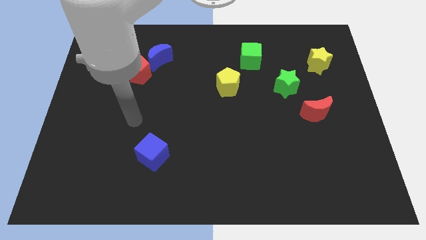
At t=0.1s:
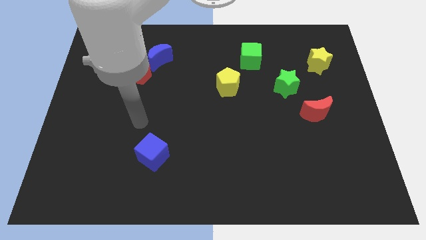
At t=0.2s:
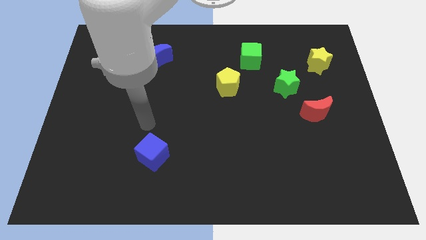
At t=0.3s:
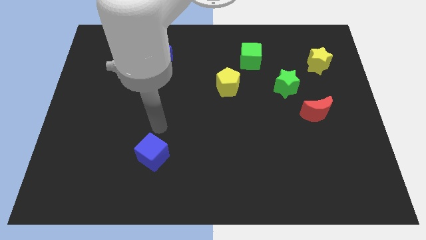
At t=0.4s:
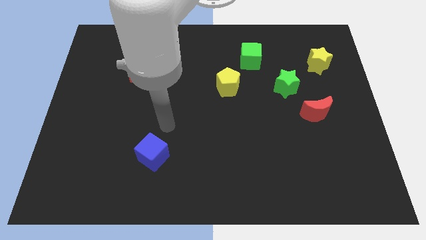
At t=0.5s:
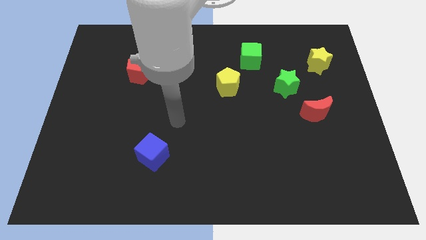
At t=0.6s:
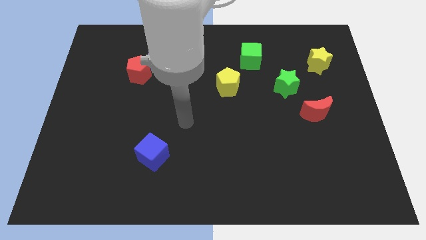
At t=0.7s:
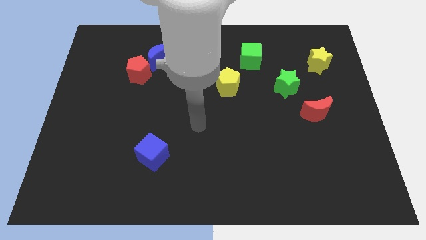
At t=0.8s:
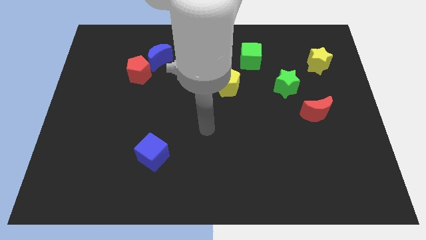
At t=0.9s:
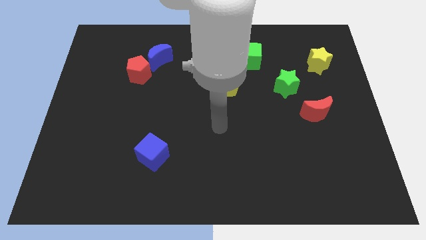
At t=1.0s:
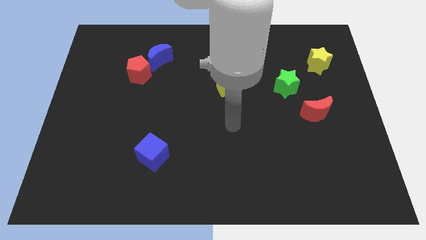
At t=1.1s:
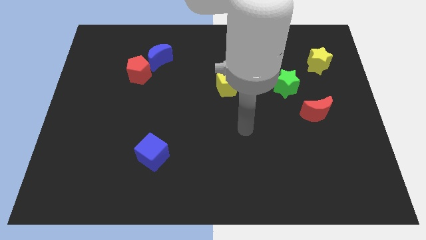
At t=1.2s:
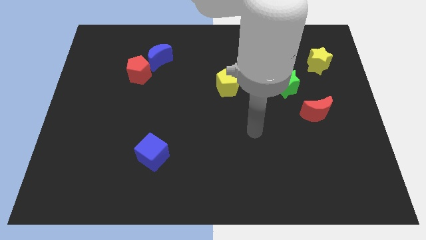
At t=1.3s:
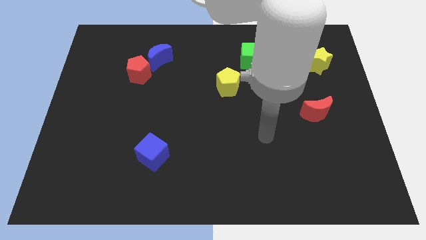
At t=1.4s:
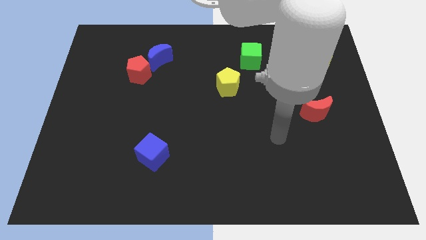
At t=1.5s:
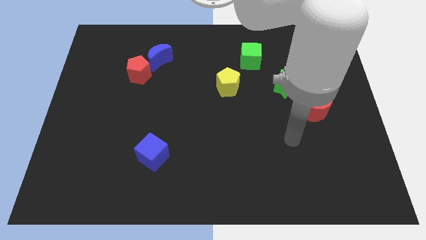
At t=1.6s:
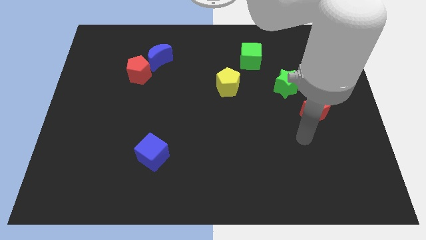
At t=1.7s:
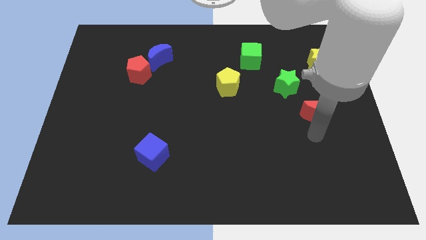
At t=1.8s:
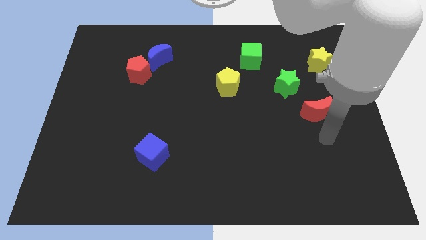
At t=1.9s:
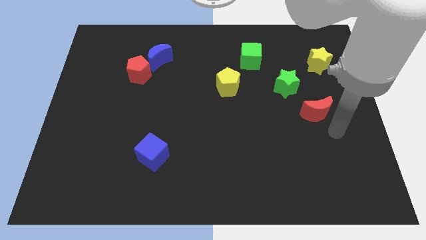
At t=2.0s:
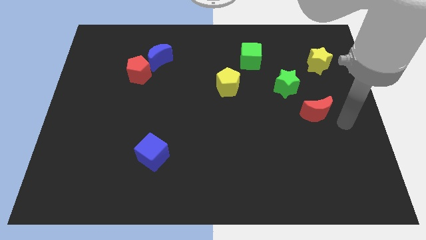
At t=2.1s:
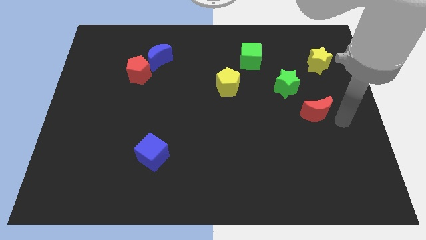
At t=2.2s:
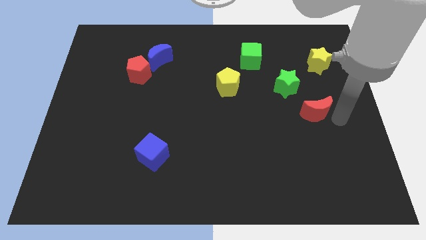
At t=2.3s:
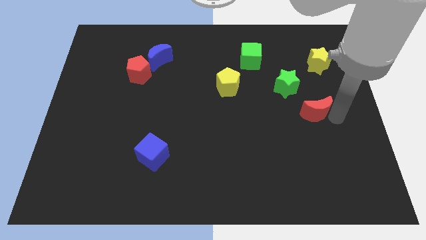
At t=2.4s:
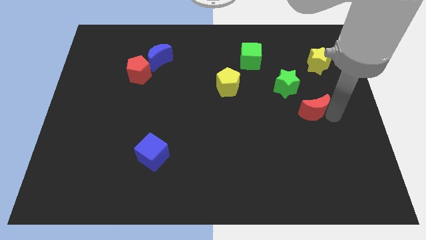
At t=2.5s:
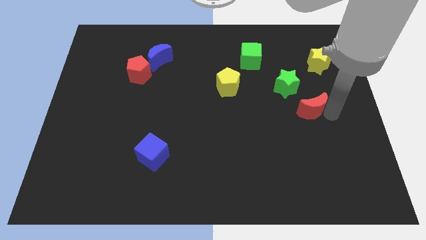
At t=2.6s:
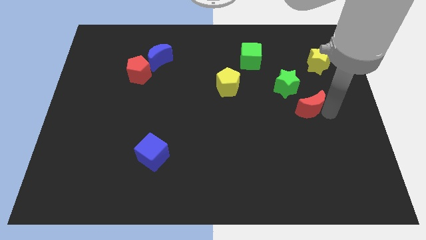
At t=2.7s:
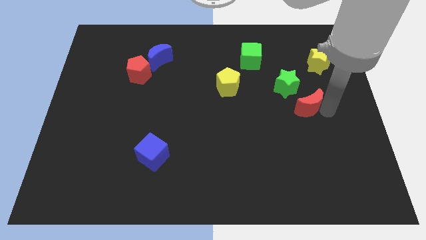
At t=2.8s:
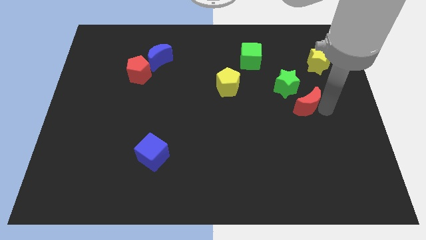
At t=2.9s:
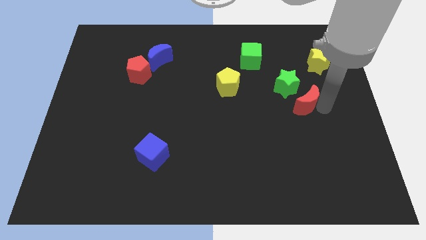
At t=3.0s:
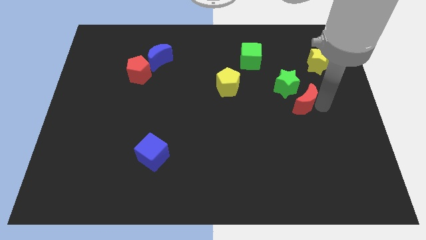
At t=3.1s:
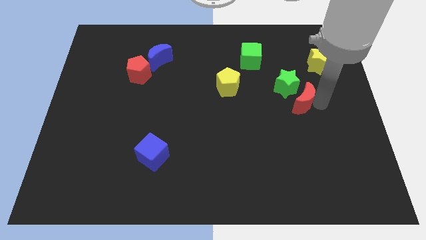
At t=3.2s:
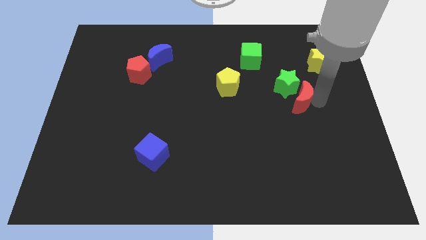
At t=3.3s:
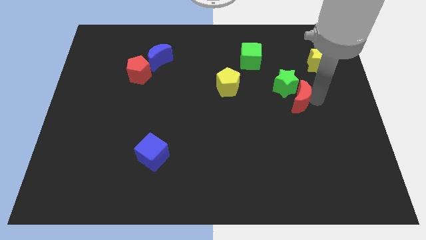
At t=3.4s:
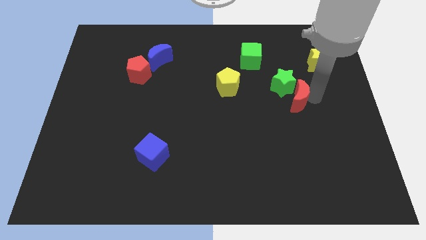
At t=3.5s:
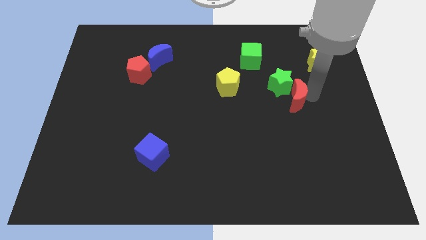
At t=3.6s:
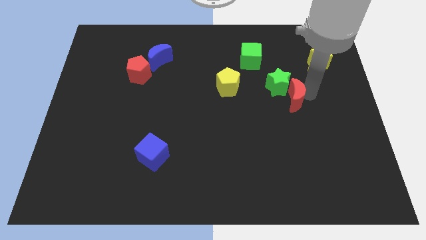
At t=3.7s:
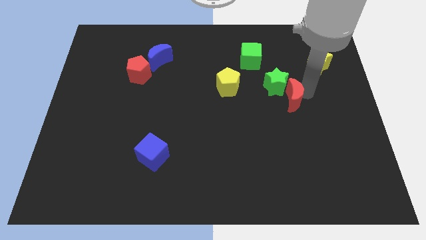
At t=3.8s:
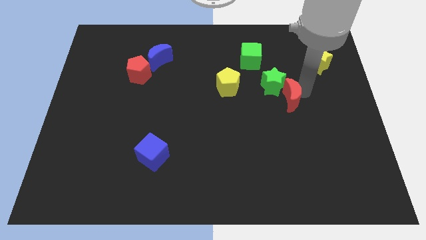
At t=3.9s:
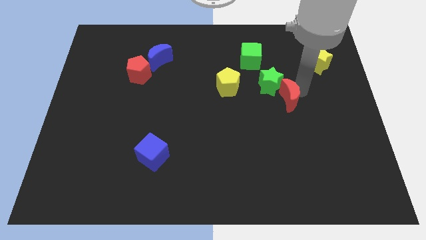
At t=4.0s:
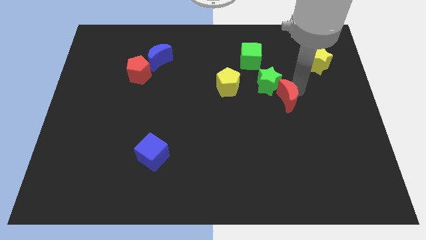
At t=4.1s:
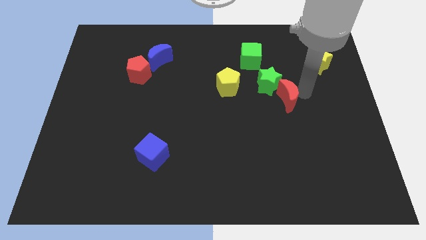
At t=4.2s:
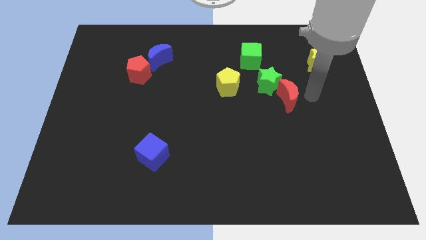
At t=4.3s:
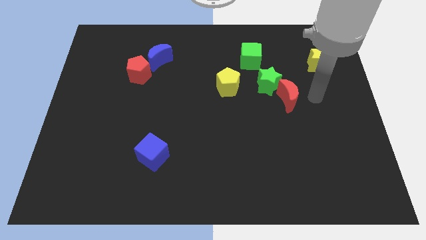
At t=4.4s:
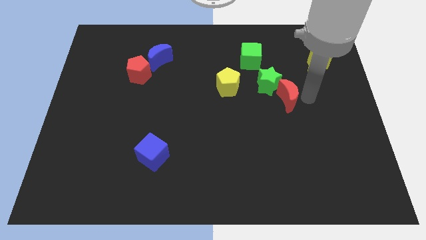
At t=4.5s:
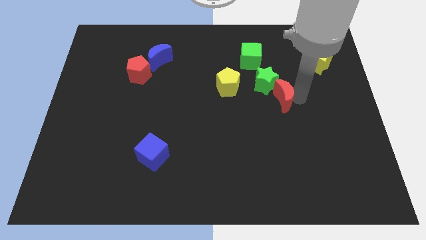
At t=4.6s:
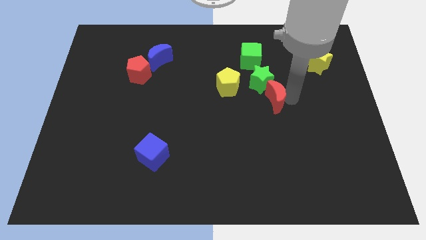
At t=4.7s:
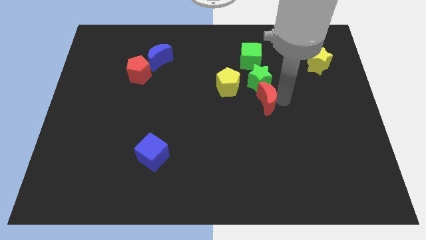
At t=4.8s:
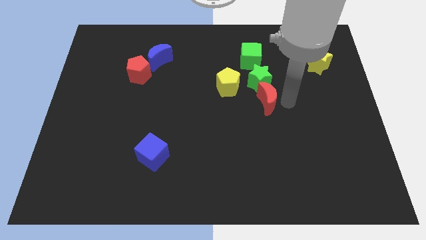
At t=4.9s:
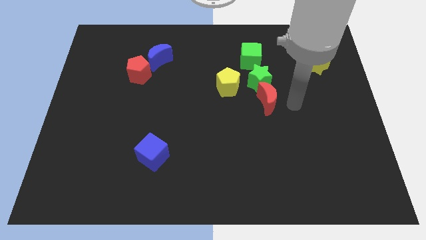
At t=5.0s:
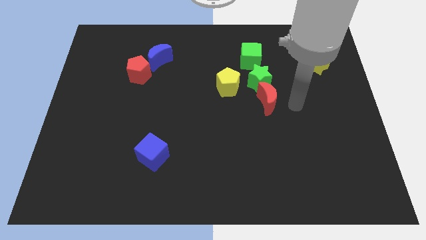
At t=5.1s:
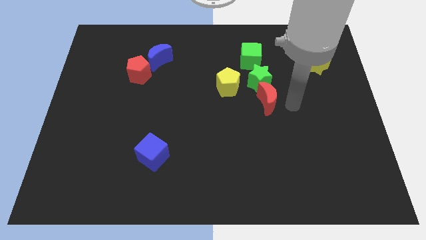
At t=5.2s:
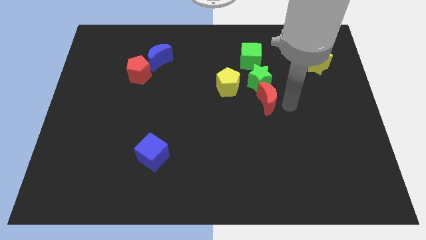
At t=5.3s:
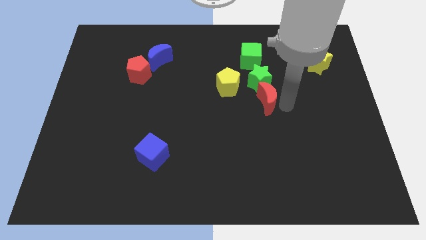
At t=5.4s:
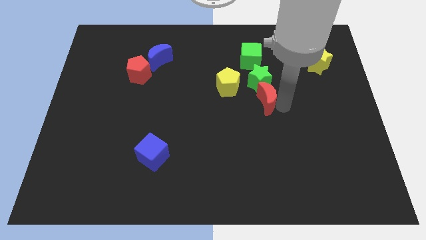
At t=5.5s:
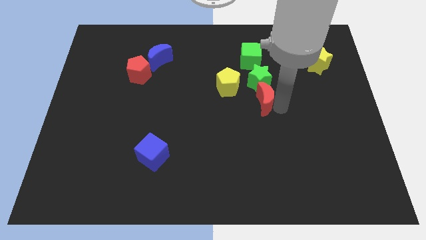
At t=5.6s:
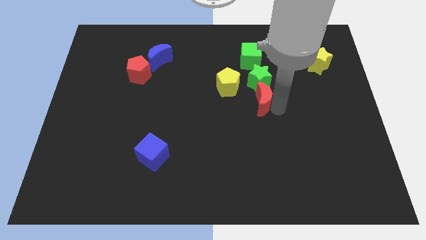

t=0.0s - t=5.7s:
push the red moon diagonally down and to the left of the green star

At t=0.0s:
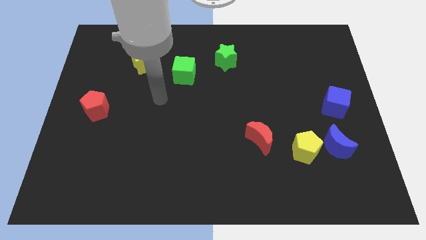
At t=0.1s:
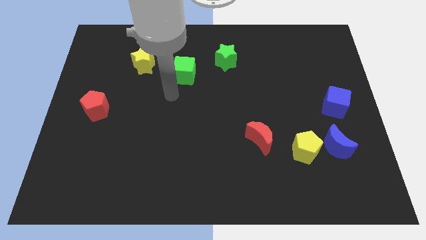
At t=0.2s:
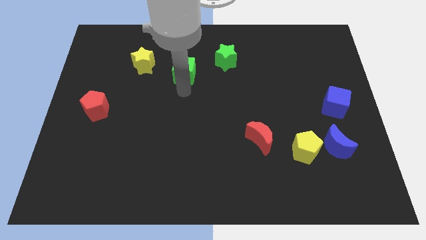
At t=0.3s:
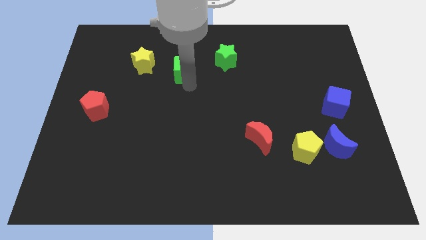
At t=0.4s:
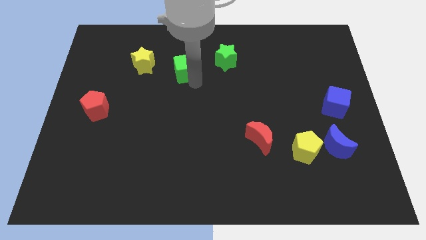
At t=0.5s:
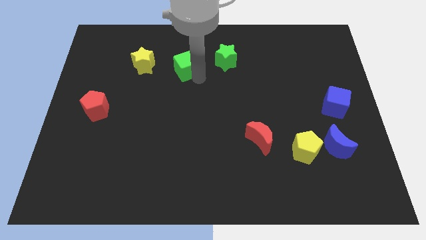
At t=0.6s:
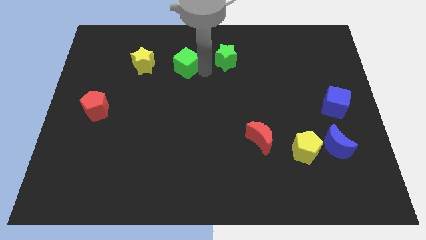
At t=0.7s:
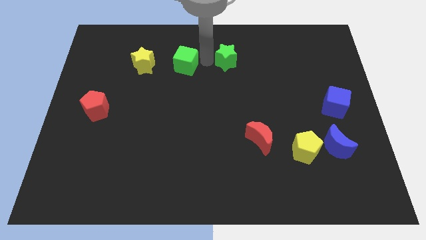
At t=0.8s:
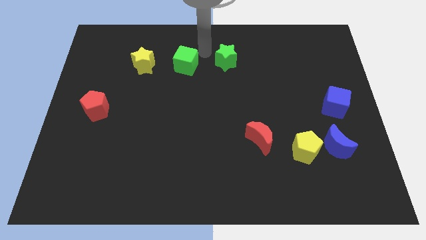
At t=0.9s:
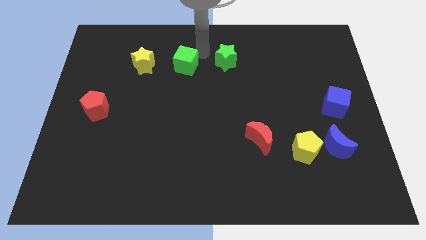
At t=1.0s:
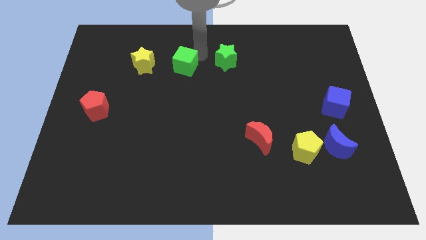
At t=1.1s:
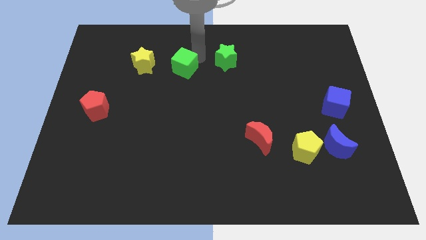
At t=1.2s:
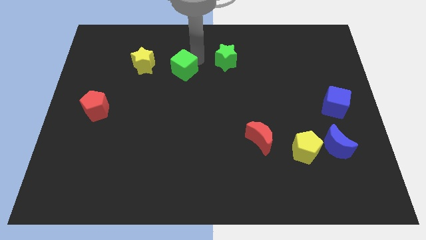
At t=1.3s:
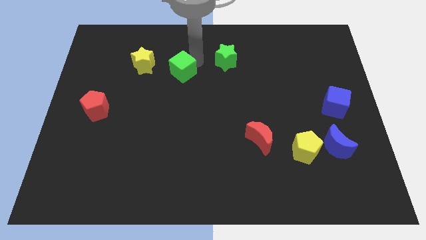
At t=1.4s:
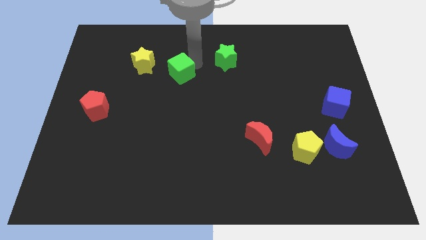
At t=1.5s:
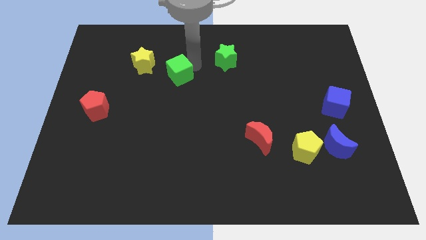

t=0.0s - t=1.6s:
push the green cube diagonally down and to the right of the yellow star
